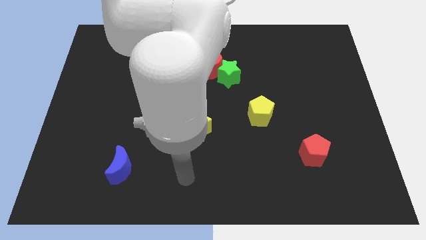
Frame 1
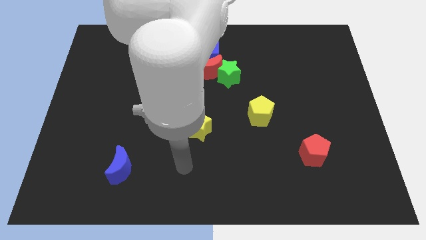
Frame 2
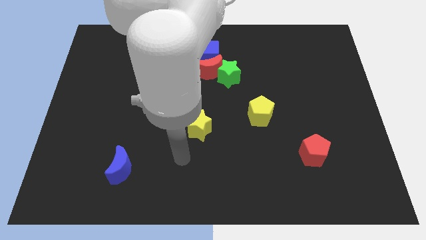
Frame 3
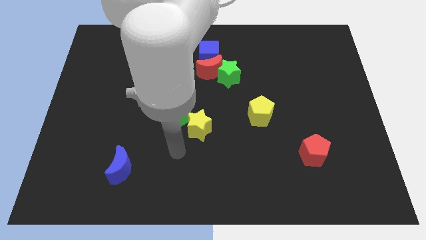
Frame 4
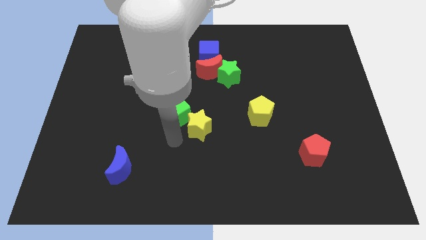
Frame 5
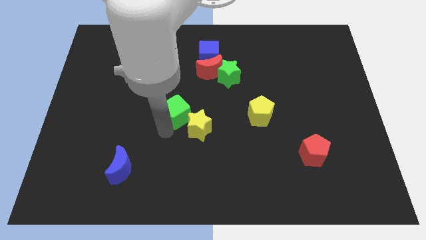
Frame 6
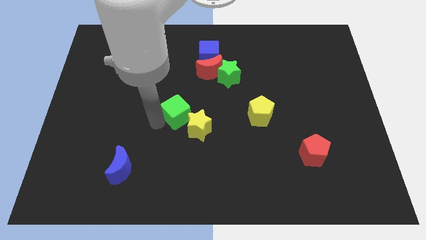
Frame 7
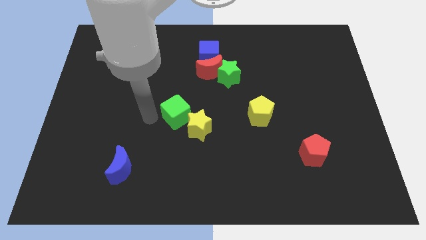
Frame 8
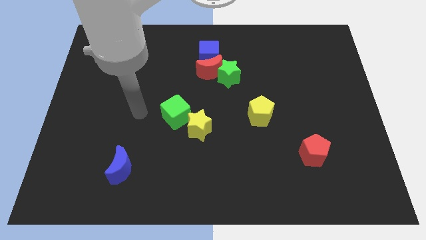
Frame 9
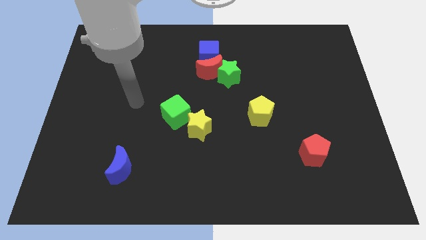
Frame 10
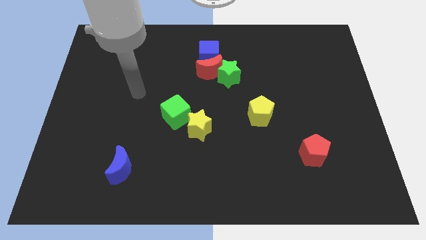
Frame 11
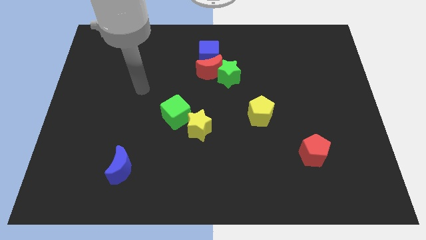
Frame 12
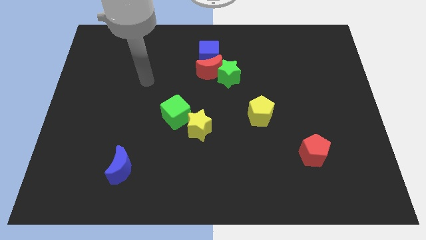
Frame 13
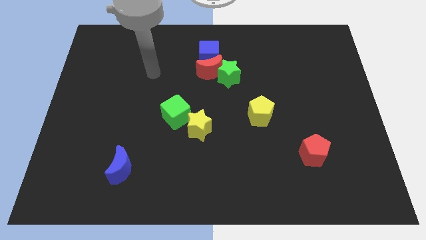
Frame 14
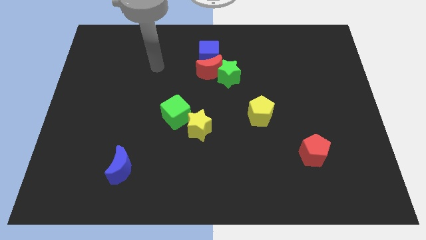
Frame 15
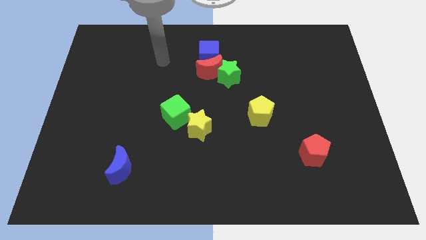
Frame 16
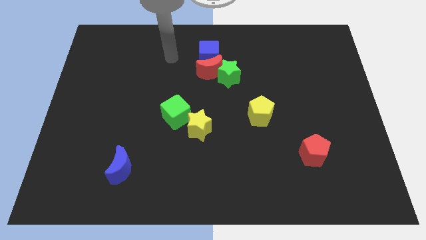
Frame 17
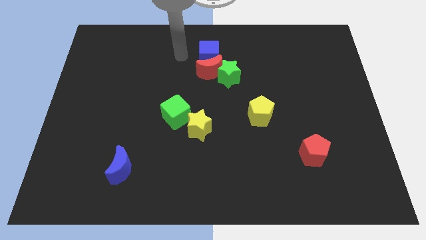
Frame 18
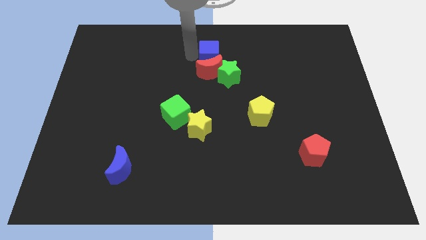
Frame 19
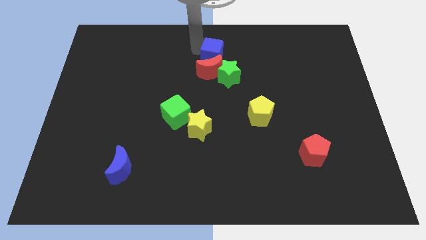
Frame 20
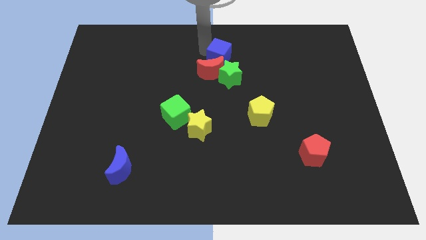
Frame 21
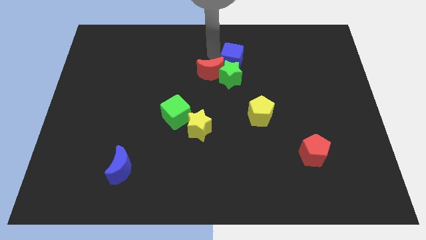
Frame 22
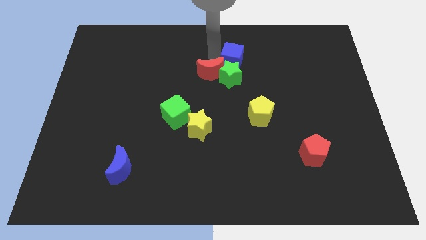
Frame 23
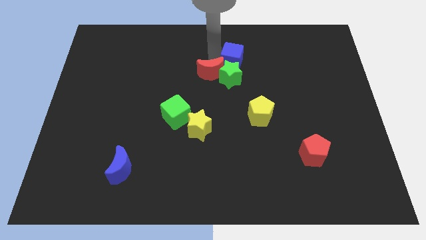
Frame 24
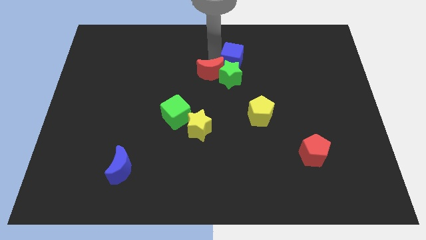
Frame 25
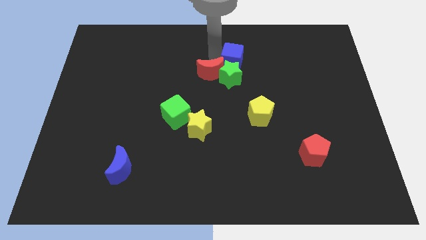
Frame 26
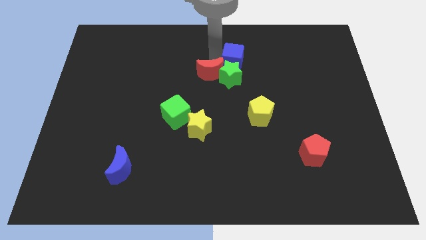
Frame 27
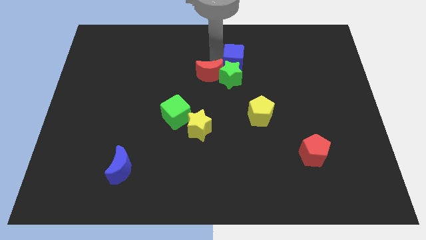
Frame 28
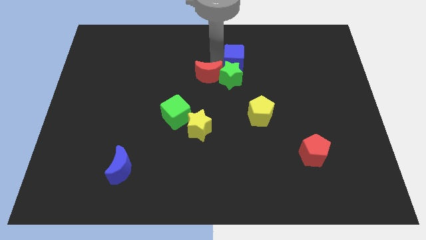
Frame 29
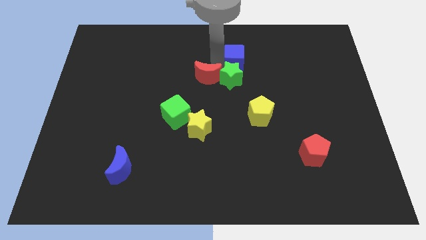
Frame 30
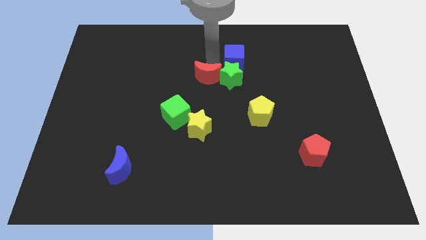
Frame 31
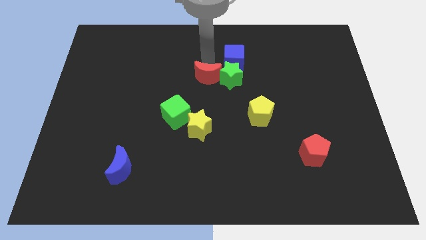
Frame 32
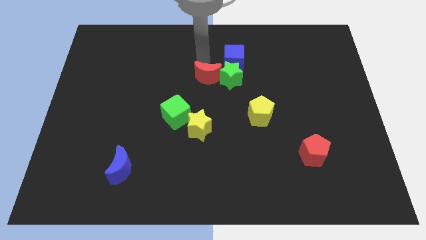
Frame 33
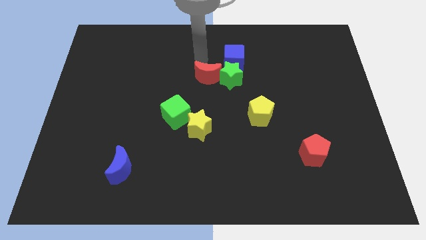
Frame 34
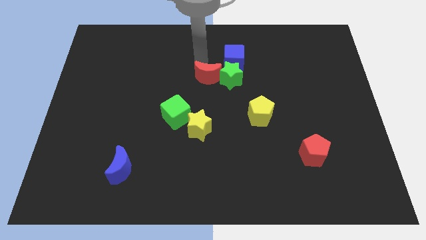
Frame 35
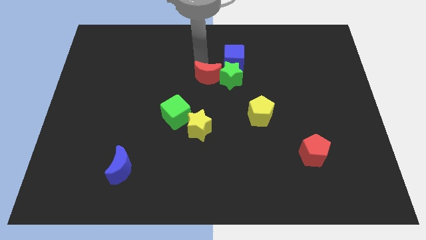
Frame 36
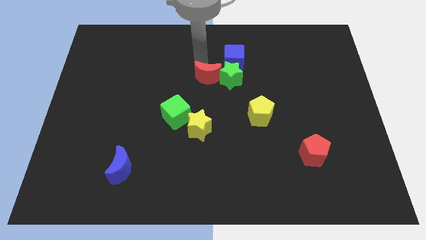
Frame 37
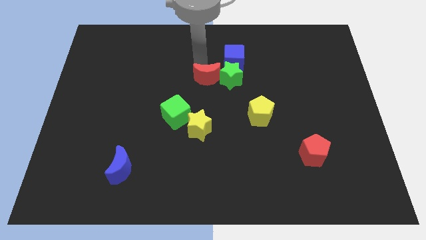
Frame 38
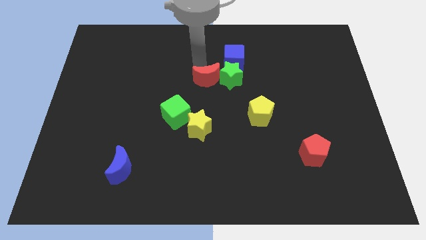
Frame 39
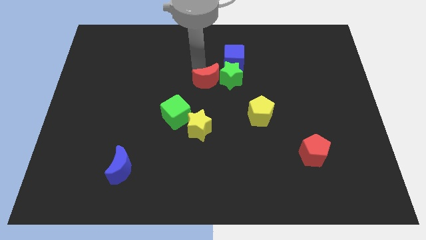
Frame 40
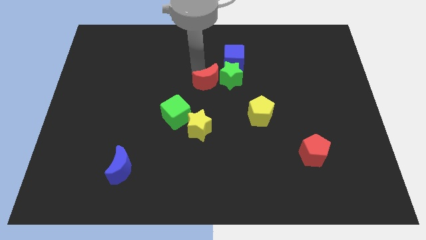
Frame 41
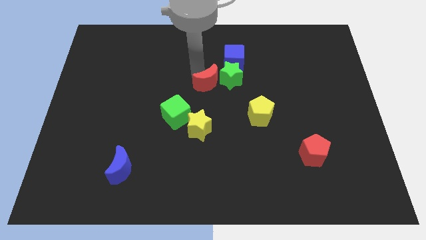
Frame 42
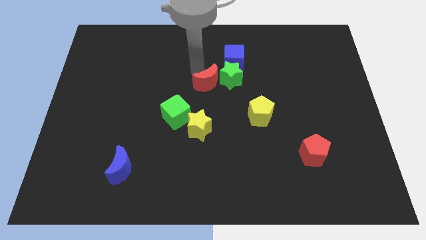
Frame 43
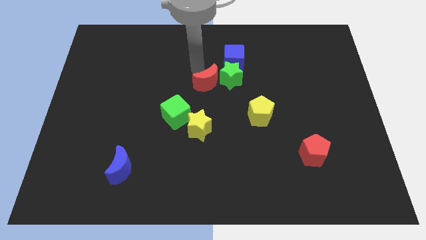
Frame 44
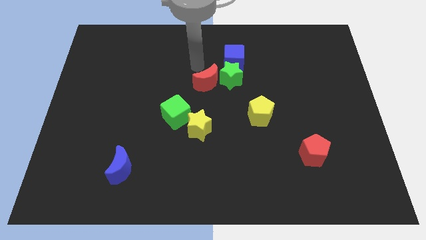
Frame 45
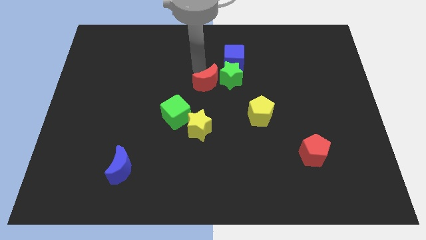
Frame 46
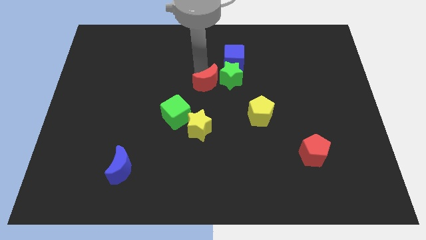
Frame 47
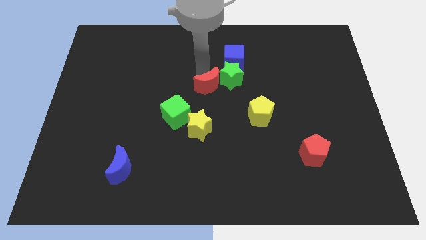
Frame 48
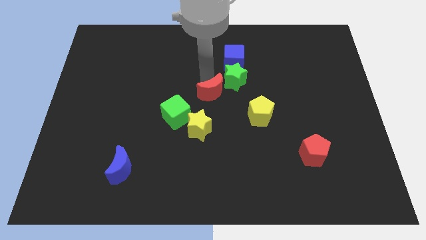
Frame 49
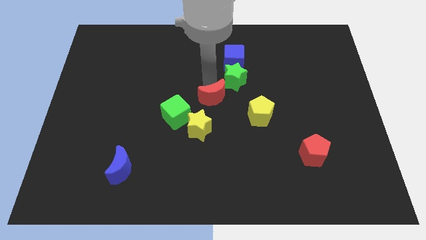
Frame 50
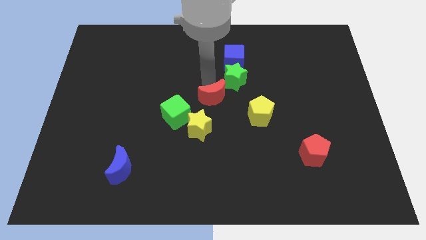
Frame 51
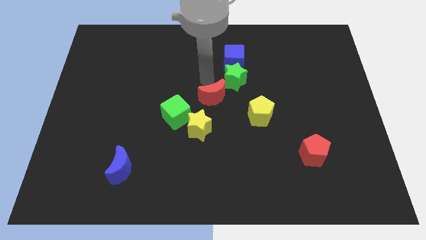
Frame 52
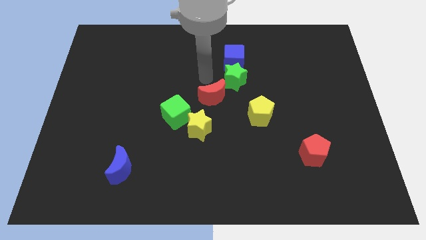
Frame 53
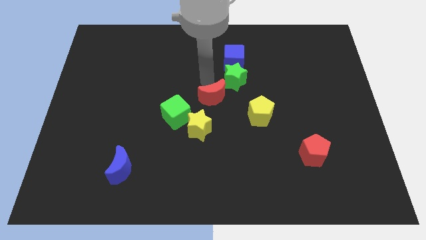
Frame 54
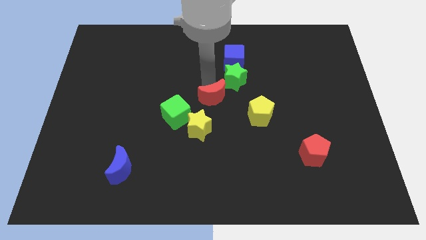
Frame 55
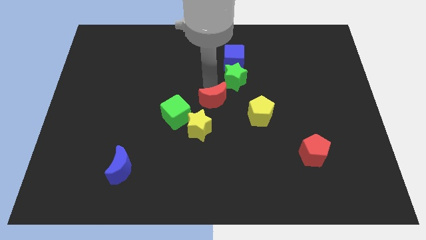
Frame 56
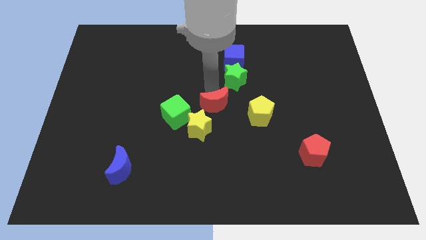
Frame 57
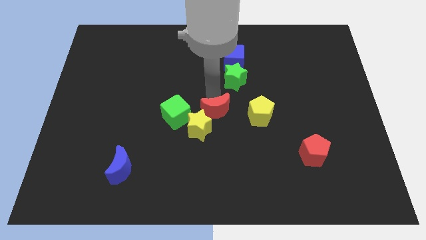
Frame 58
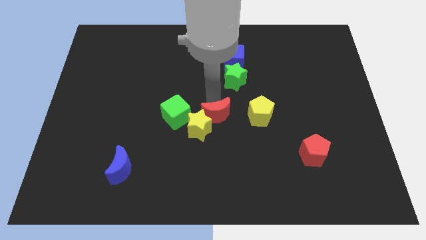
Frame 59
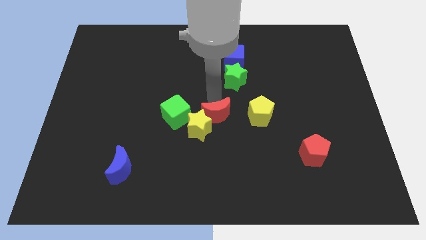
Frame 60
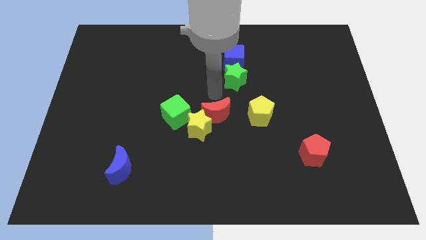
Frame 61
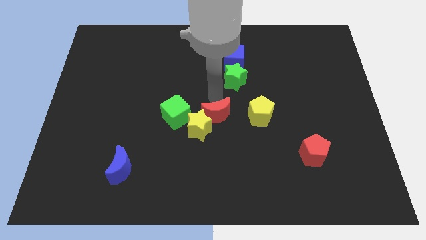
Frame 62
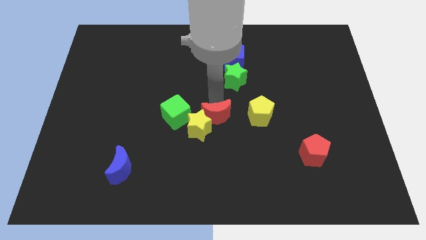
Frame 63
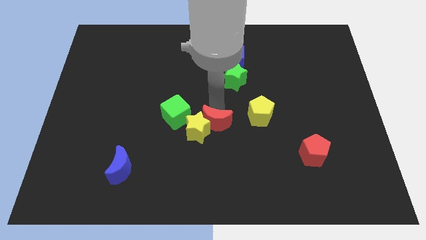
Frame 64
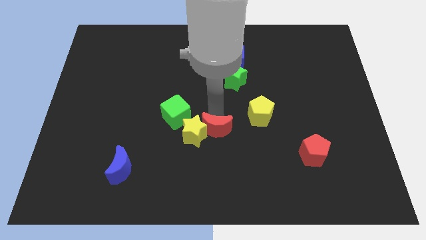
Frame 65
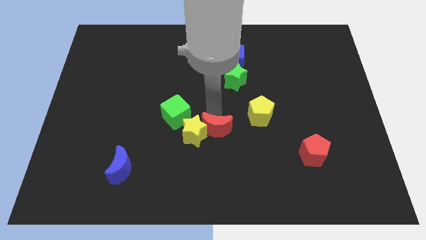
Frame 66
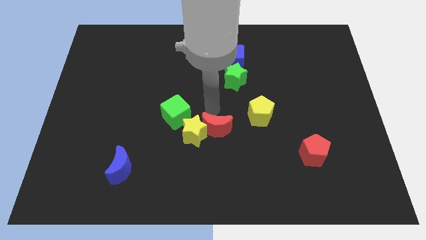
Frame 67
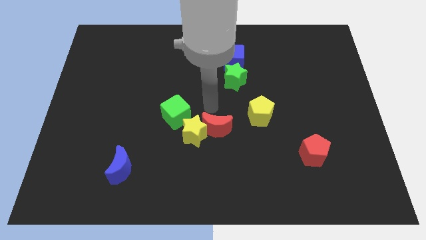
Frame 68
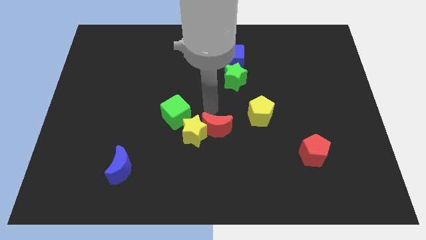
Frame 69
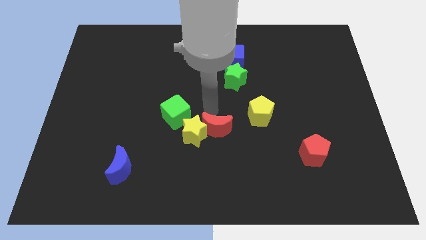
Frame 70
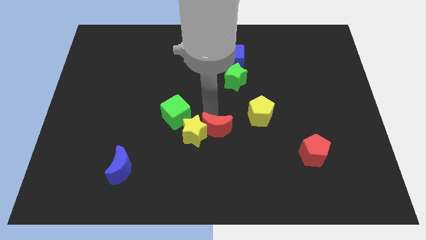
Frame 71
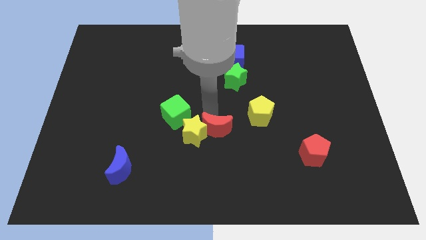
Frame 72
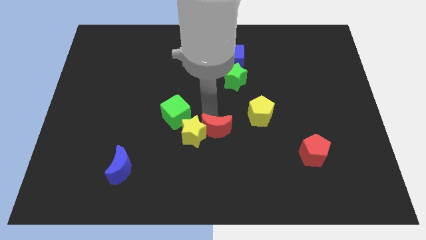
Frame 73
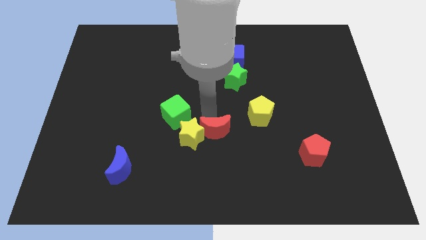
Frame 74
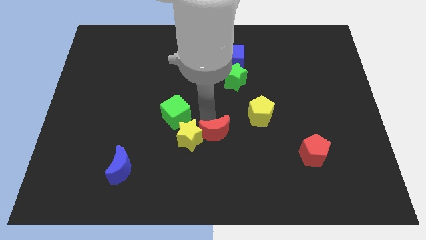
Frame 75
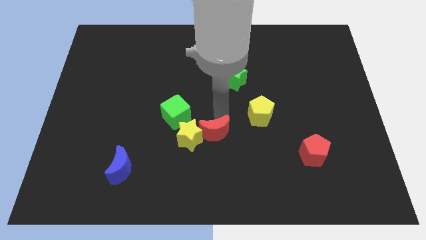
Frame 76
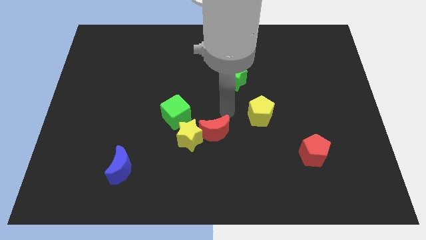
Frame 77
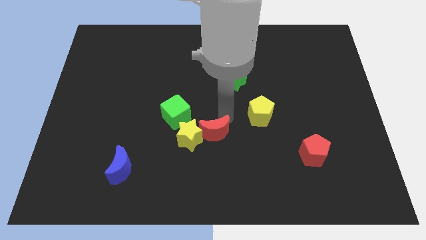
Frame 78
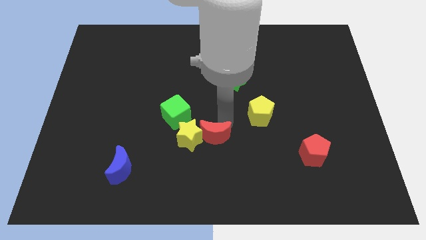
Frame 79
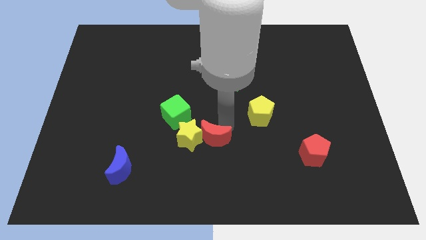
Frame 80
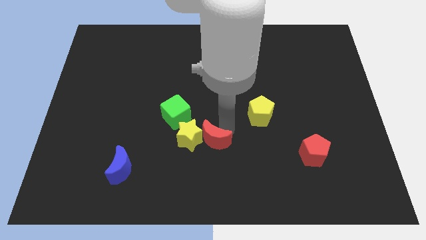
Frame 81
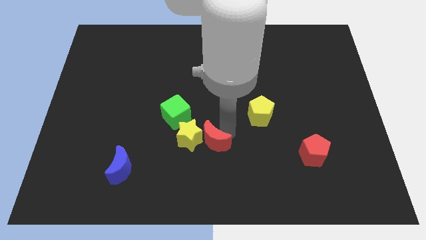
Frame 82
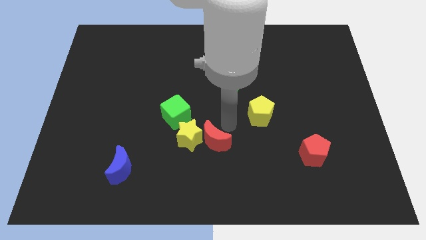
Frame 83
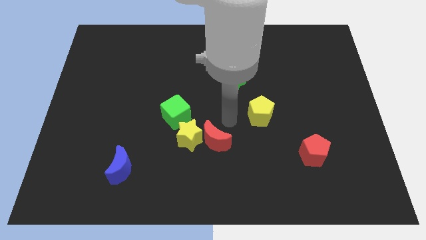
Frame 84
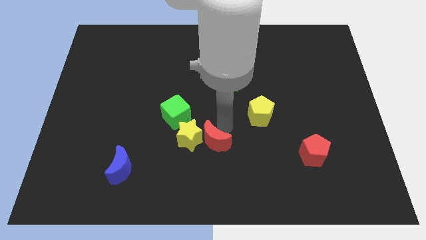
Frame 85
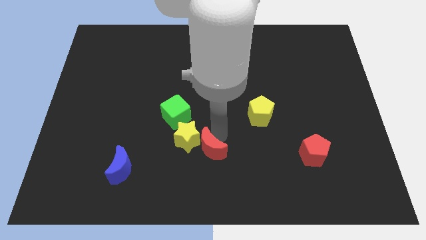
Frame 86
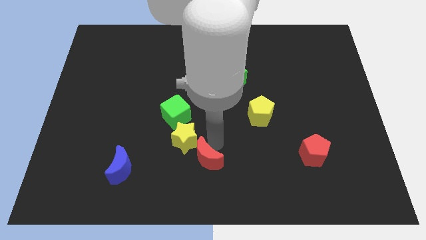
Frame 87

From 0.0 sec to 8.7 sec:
push the red moon to the bottom of the yellow star
